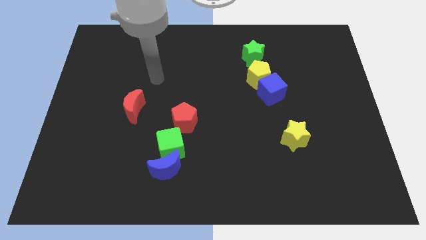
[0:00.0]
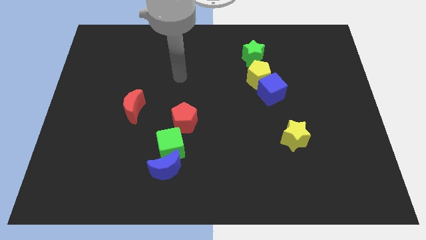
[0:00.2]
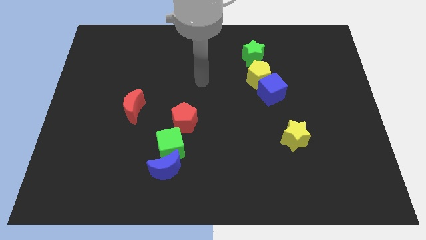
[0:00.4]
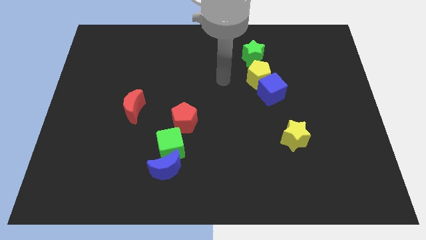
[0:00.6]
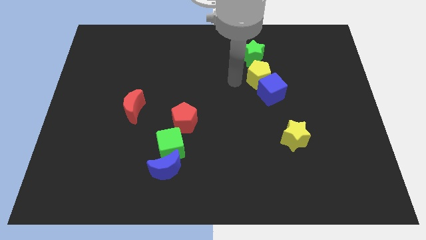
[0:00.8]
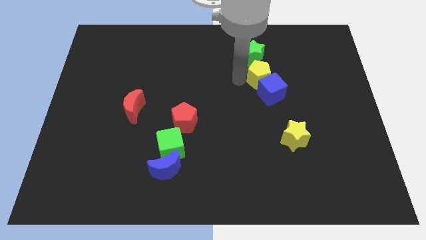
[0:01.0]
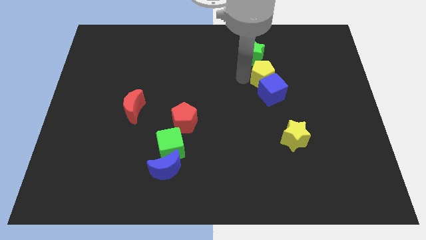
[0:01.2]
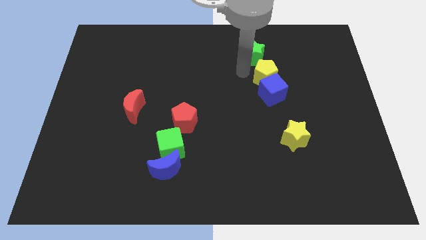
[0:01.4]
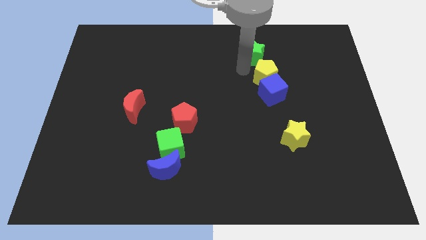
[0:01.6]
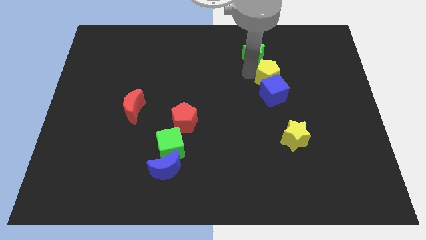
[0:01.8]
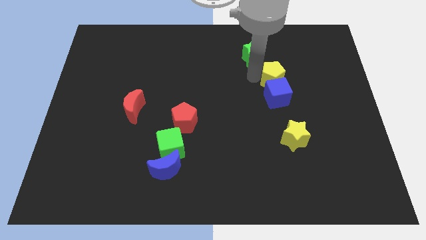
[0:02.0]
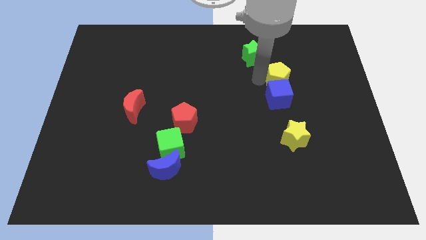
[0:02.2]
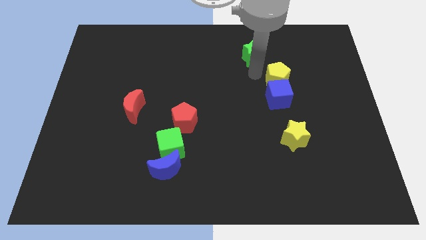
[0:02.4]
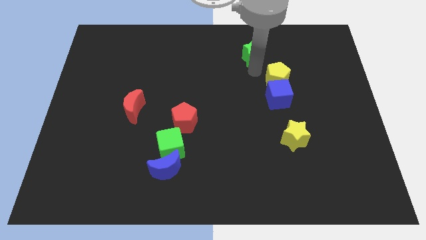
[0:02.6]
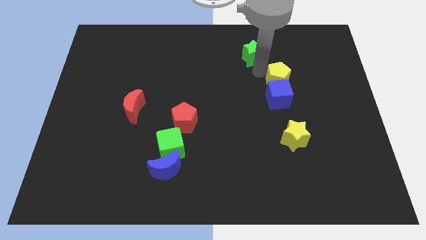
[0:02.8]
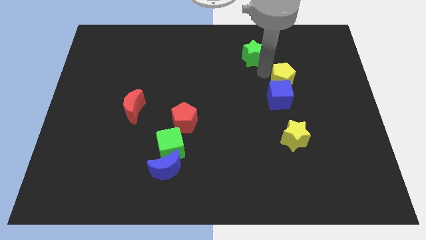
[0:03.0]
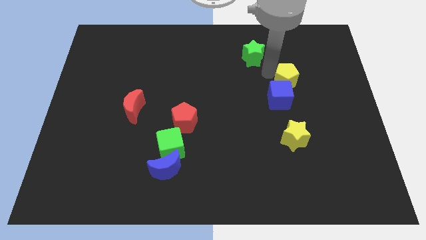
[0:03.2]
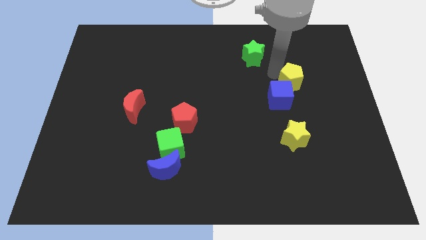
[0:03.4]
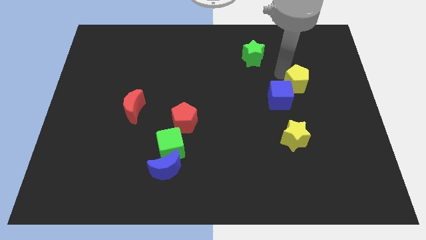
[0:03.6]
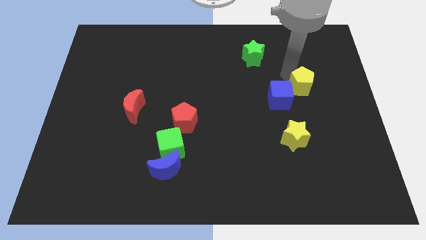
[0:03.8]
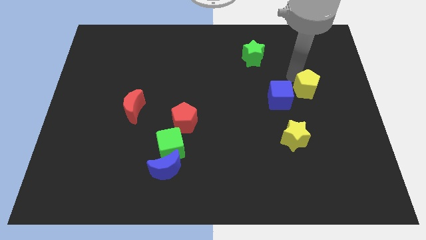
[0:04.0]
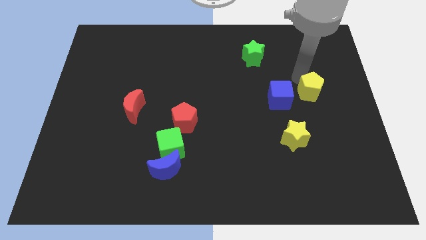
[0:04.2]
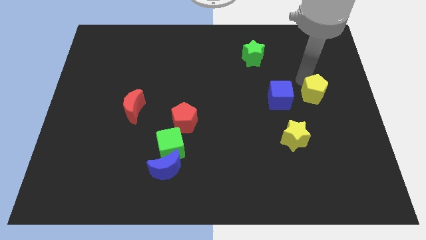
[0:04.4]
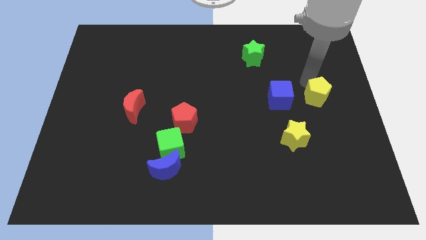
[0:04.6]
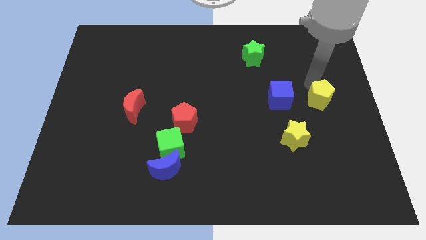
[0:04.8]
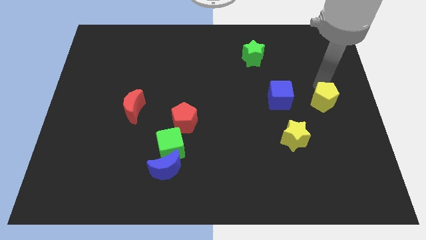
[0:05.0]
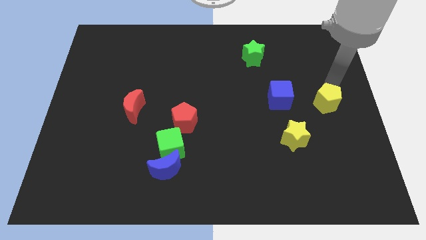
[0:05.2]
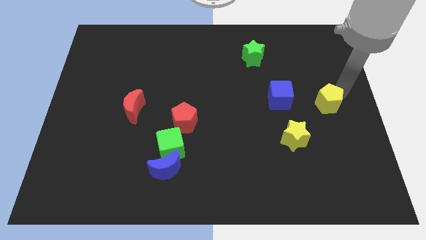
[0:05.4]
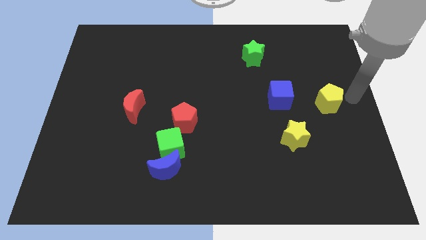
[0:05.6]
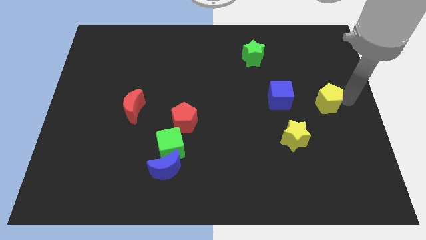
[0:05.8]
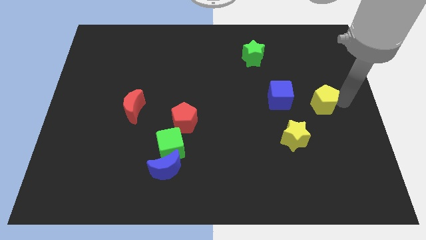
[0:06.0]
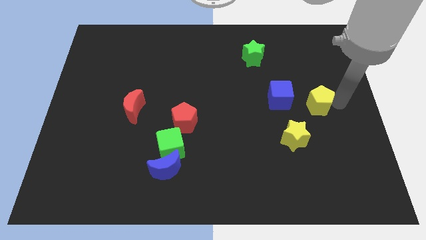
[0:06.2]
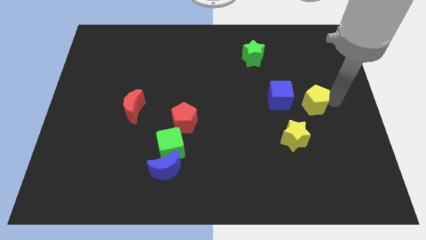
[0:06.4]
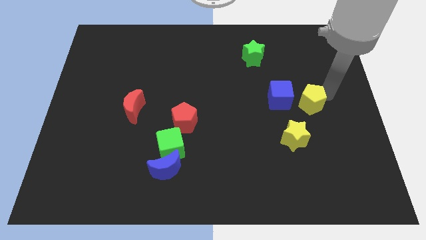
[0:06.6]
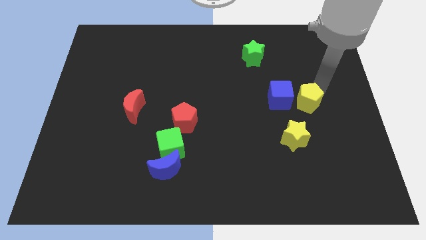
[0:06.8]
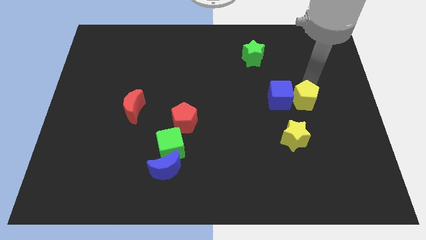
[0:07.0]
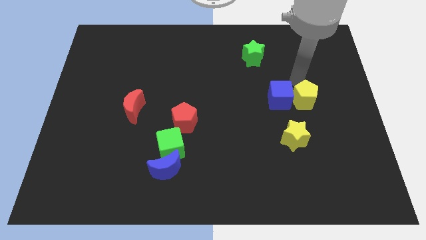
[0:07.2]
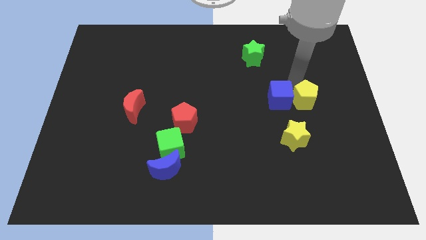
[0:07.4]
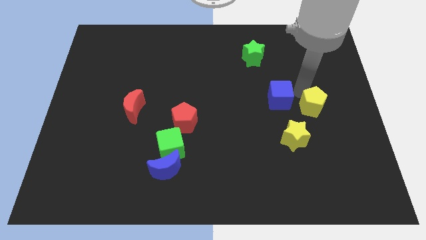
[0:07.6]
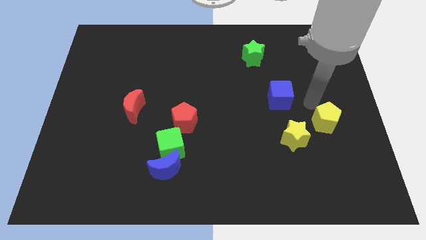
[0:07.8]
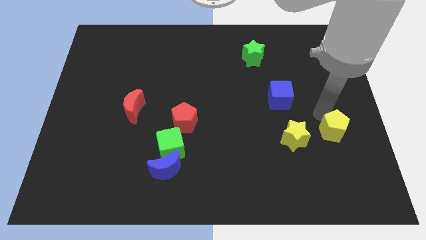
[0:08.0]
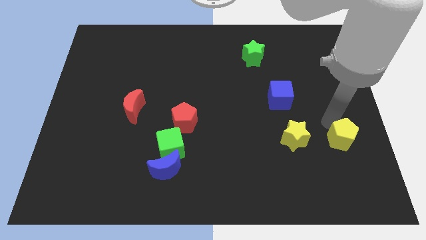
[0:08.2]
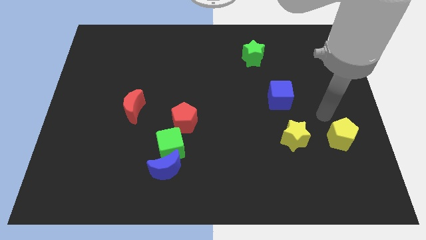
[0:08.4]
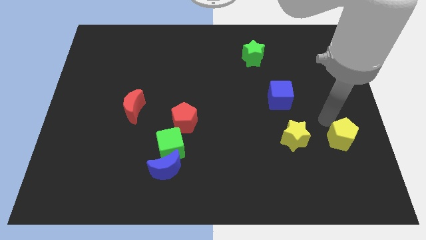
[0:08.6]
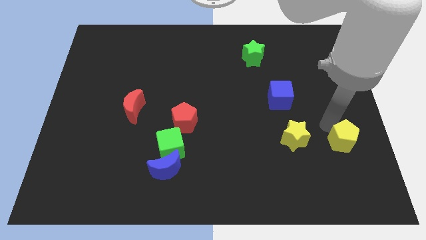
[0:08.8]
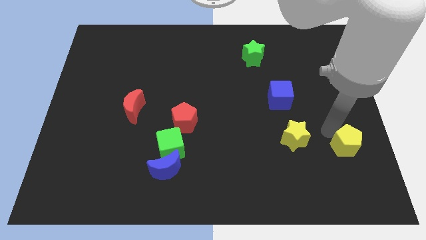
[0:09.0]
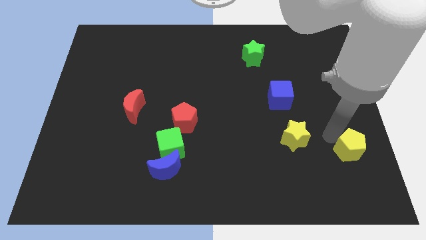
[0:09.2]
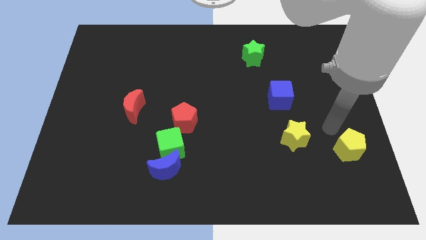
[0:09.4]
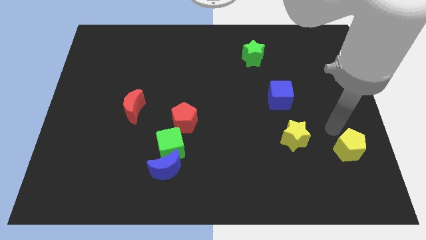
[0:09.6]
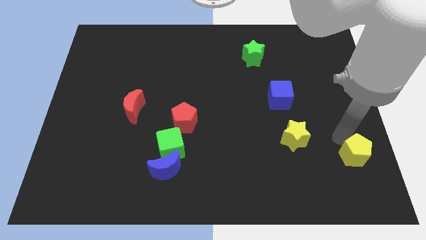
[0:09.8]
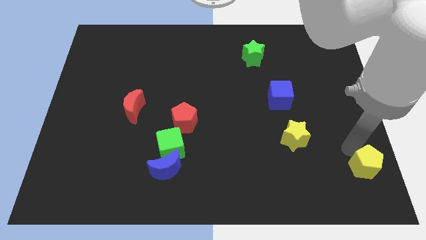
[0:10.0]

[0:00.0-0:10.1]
move the yellow pentagon to the bottom right of the board

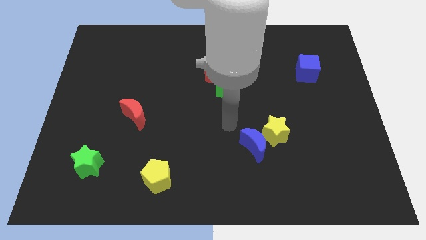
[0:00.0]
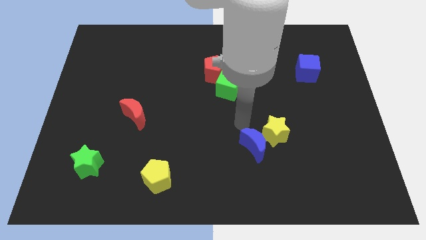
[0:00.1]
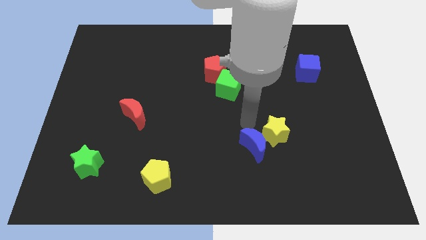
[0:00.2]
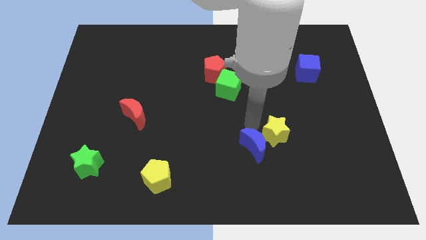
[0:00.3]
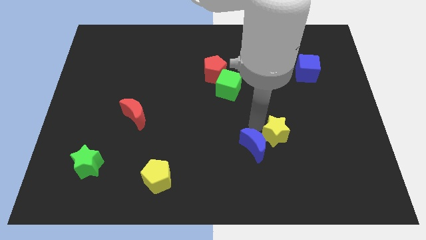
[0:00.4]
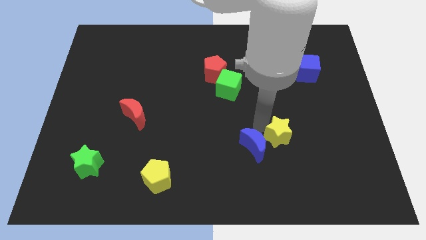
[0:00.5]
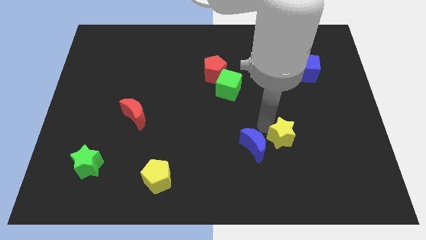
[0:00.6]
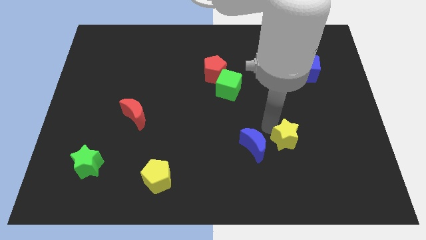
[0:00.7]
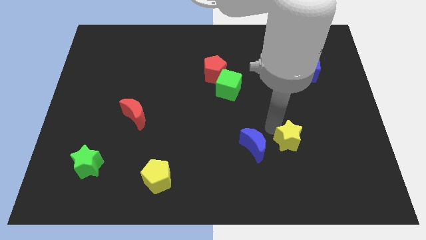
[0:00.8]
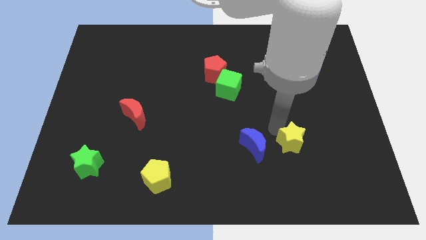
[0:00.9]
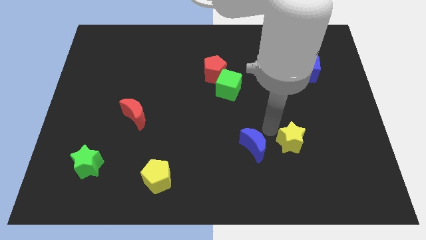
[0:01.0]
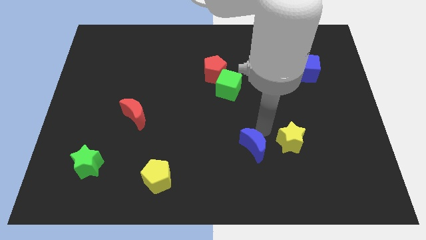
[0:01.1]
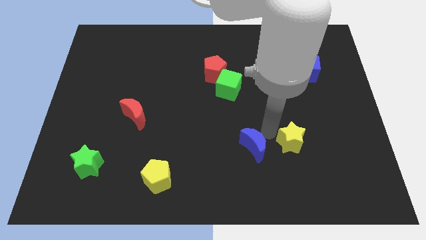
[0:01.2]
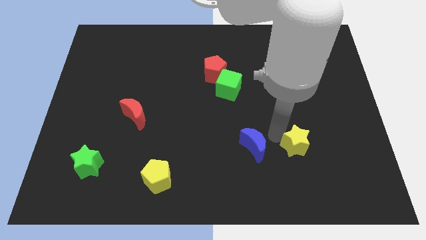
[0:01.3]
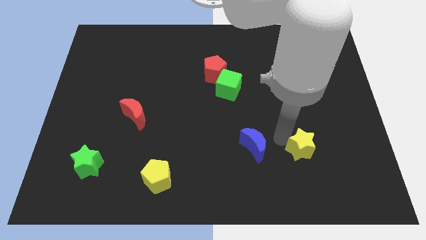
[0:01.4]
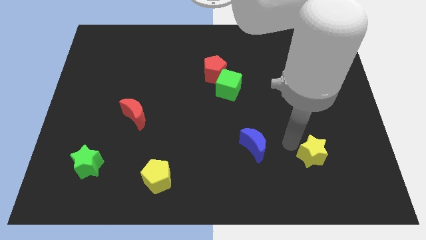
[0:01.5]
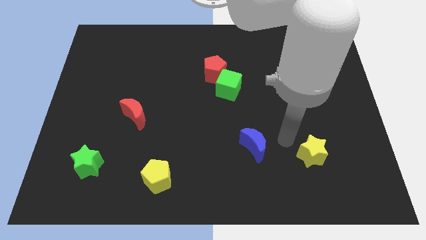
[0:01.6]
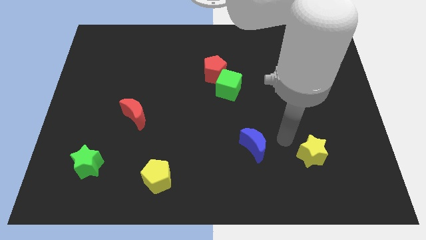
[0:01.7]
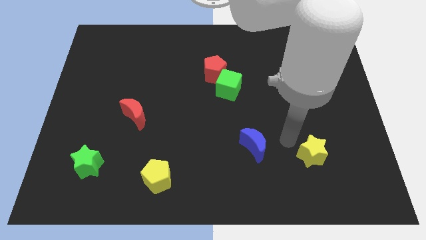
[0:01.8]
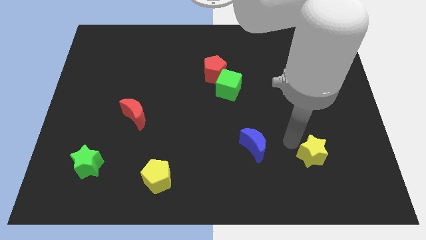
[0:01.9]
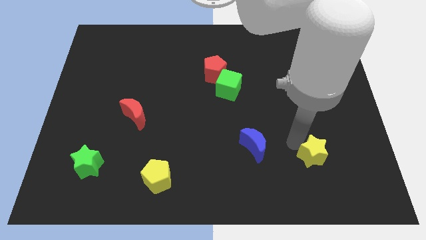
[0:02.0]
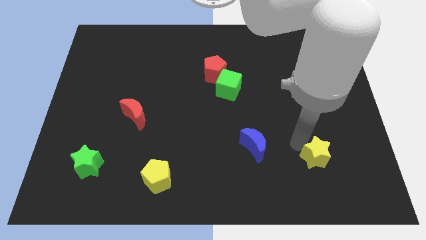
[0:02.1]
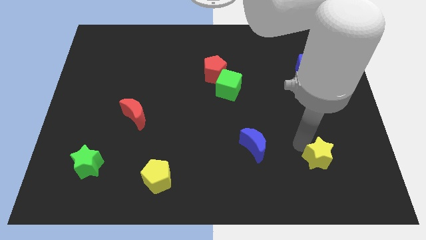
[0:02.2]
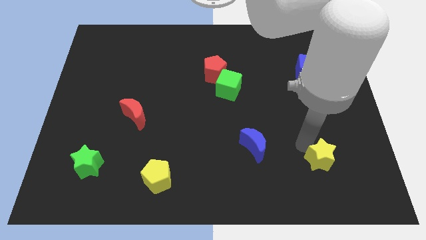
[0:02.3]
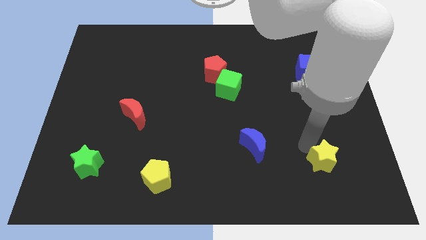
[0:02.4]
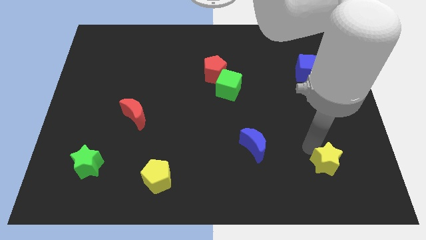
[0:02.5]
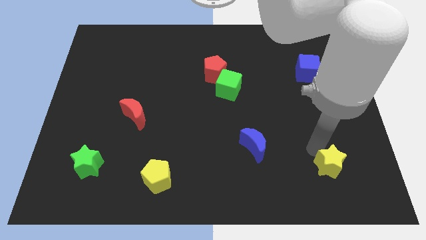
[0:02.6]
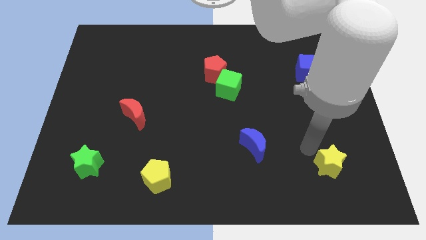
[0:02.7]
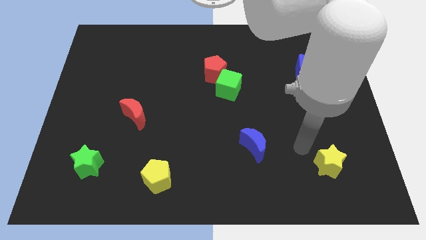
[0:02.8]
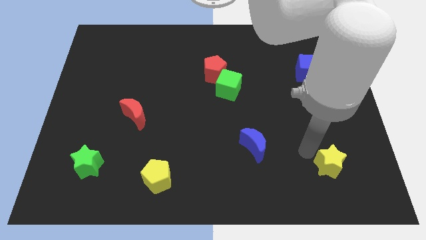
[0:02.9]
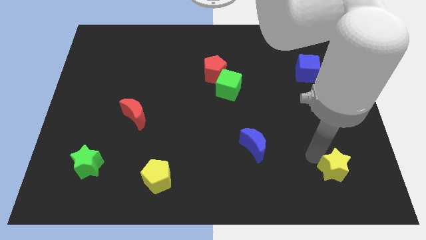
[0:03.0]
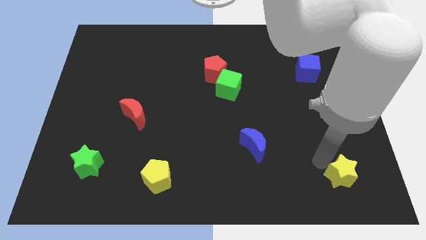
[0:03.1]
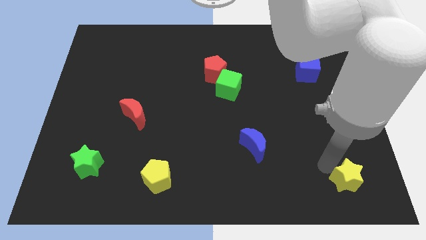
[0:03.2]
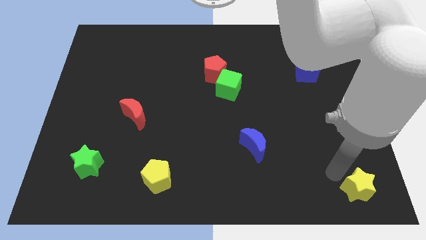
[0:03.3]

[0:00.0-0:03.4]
move the yellow star to the bottom right
